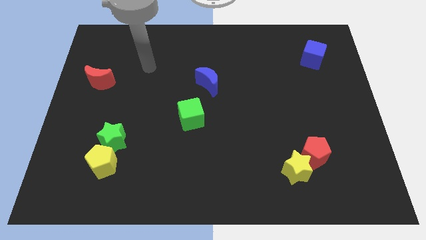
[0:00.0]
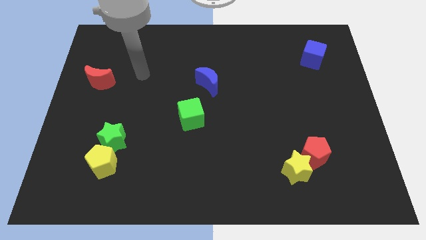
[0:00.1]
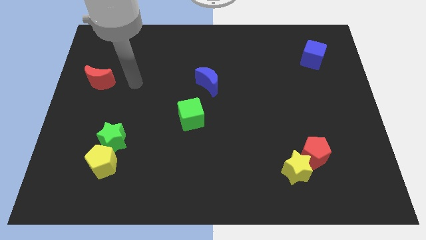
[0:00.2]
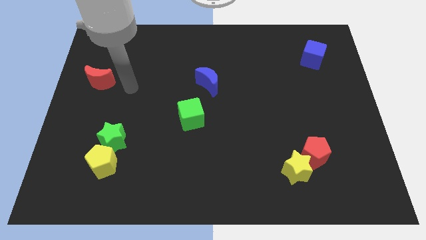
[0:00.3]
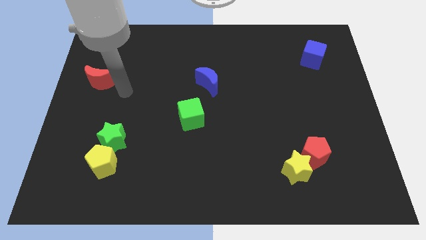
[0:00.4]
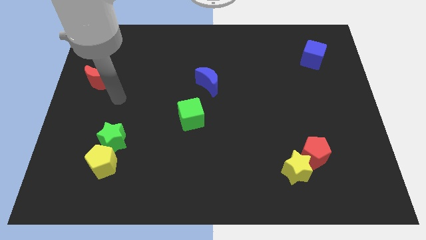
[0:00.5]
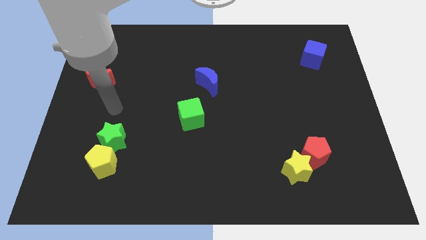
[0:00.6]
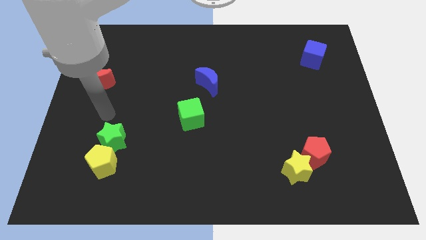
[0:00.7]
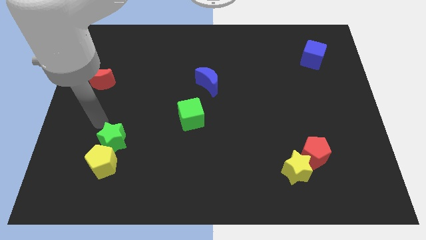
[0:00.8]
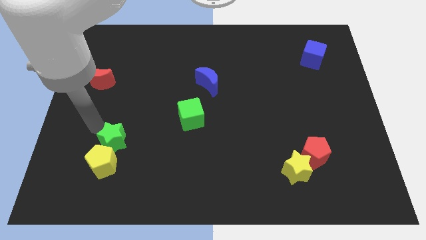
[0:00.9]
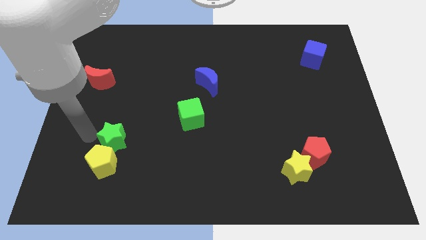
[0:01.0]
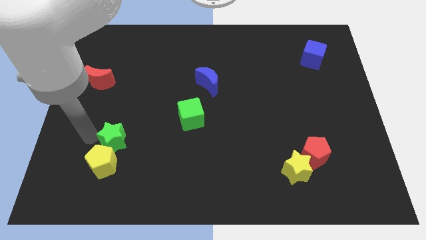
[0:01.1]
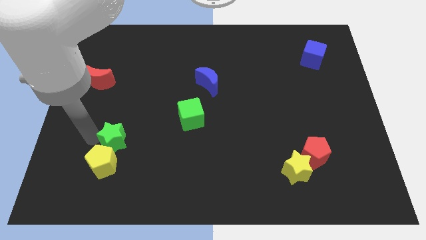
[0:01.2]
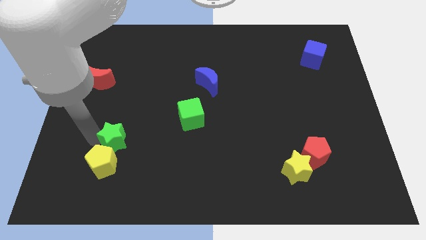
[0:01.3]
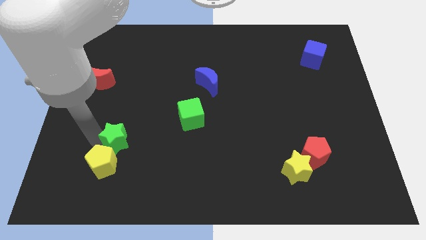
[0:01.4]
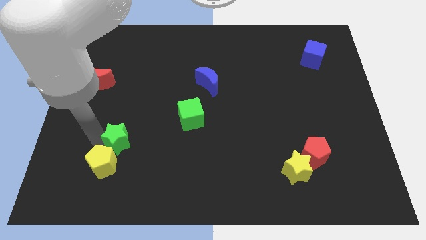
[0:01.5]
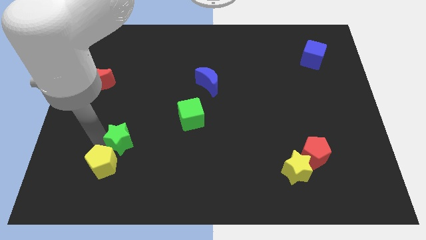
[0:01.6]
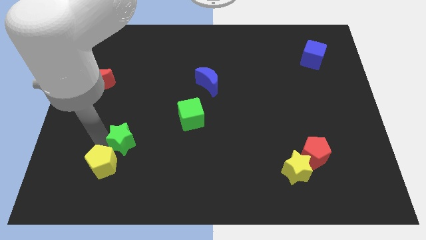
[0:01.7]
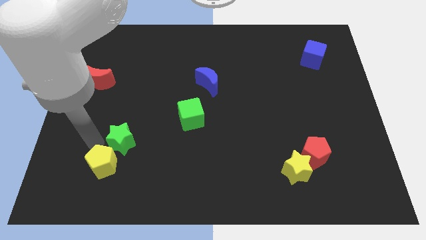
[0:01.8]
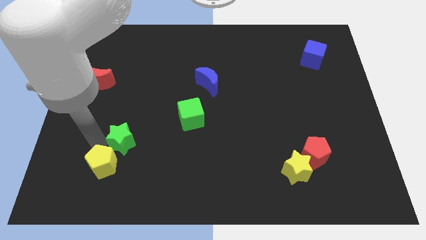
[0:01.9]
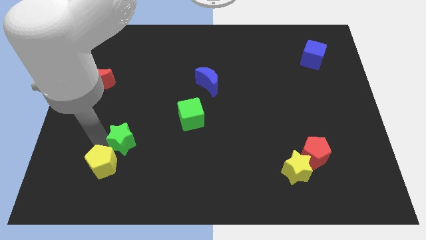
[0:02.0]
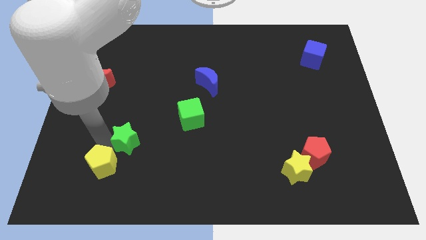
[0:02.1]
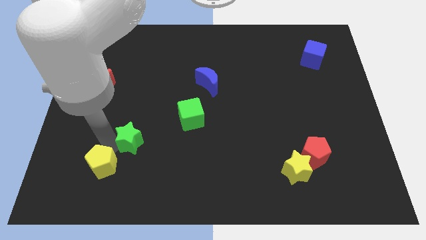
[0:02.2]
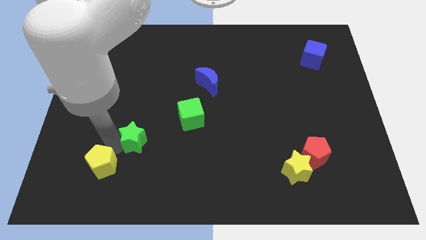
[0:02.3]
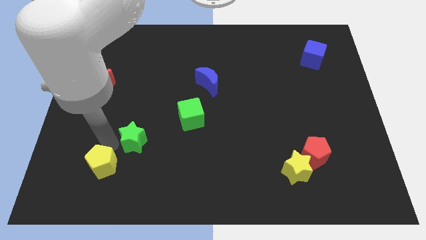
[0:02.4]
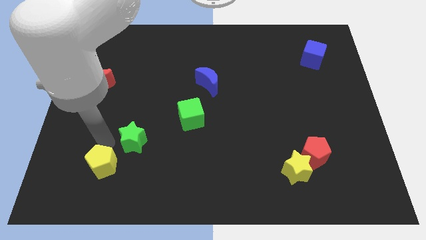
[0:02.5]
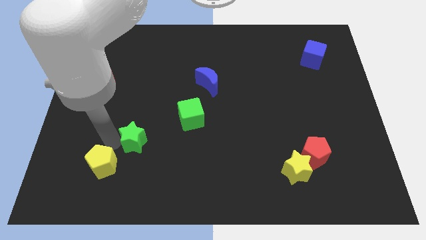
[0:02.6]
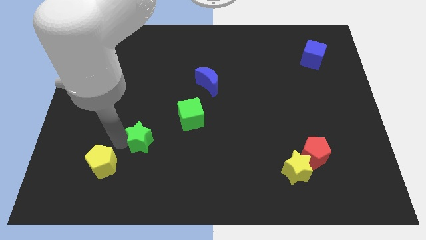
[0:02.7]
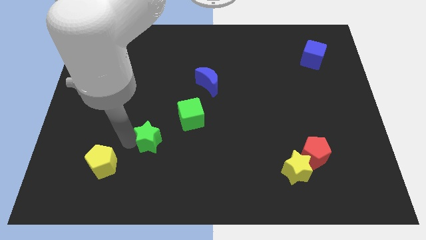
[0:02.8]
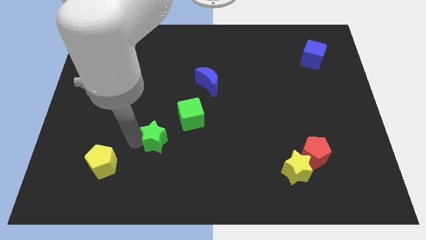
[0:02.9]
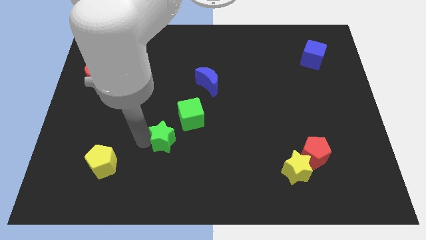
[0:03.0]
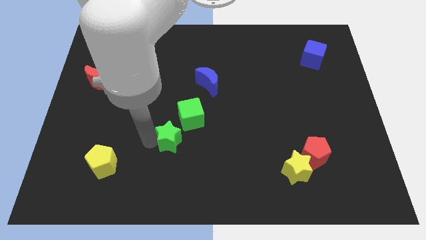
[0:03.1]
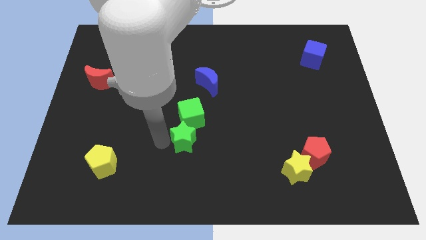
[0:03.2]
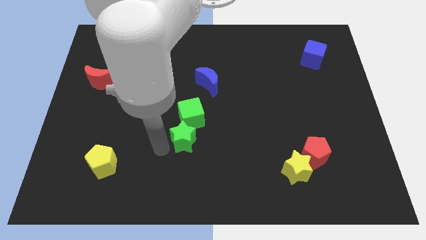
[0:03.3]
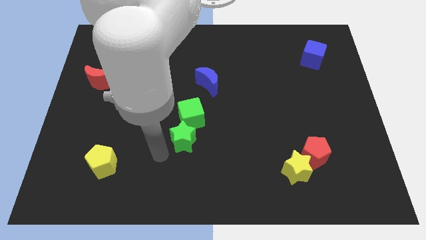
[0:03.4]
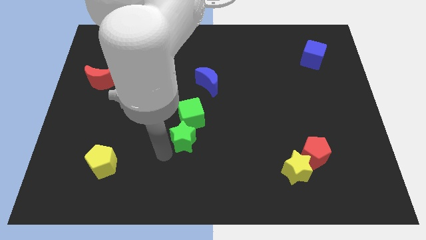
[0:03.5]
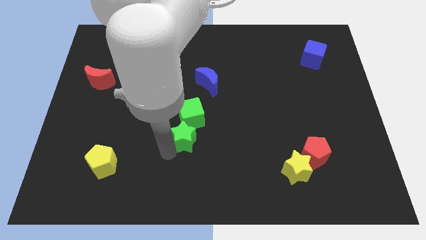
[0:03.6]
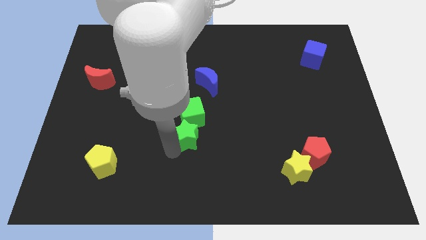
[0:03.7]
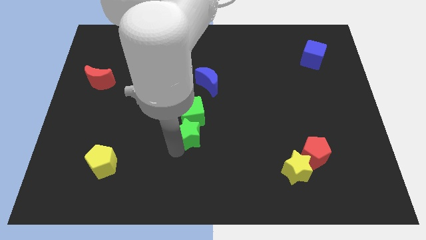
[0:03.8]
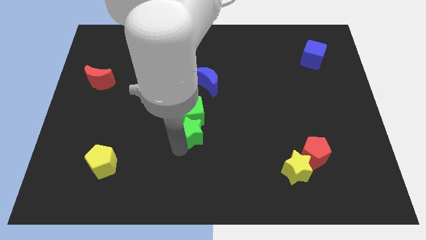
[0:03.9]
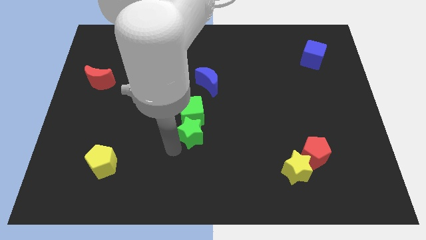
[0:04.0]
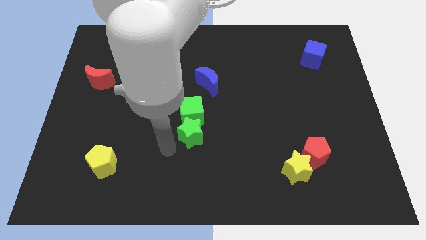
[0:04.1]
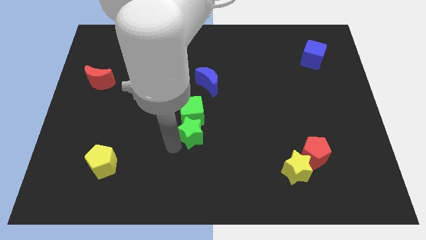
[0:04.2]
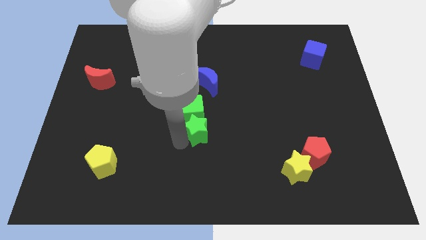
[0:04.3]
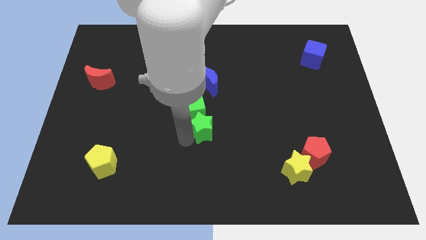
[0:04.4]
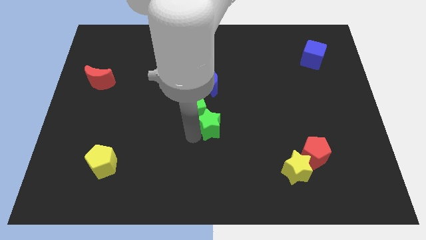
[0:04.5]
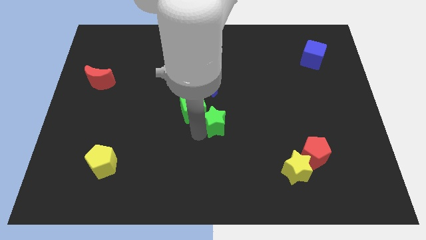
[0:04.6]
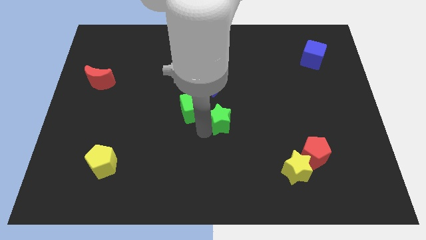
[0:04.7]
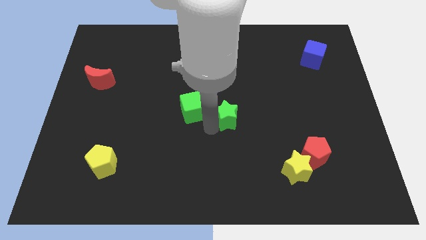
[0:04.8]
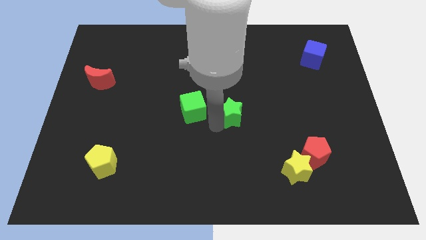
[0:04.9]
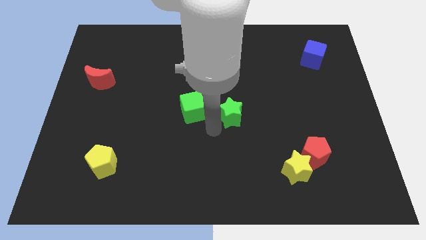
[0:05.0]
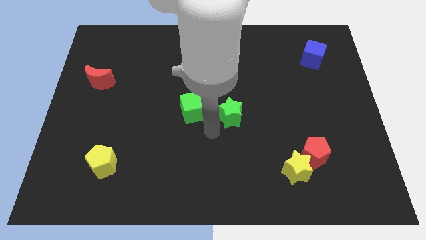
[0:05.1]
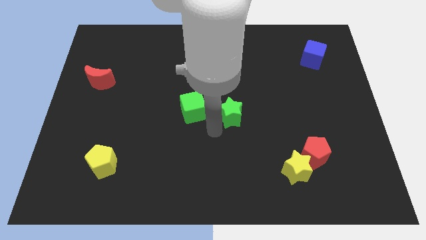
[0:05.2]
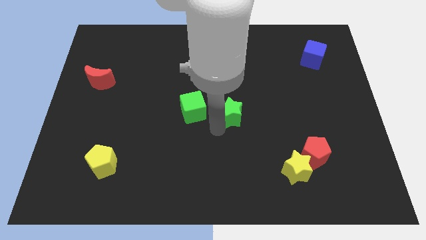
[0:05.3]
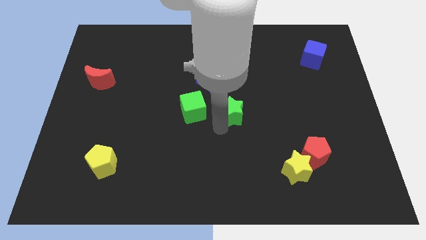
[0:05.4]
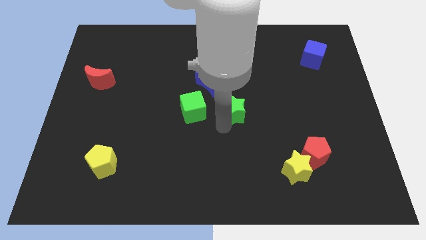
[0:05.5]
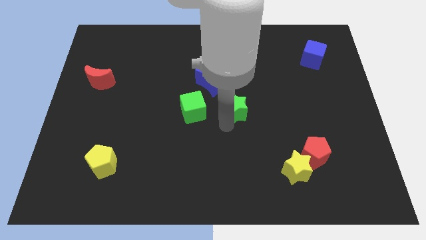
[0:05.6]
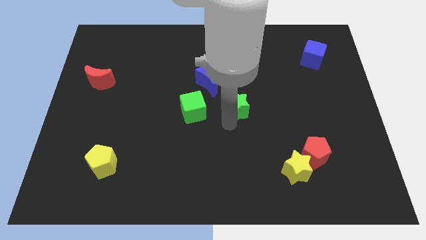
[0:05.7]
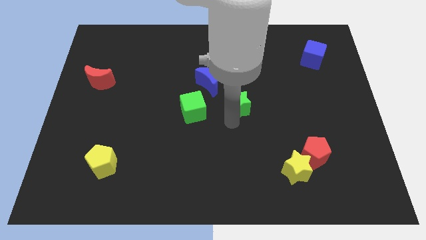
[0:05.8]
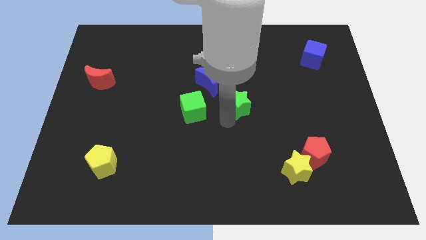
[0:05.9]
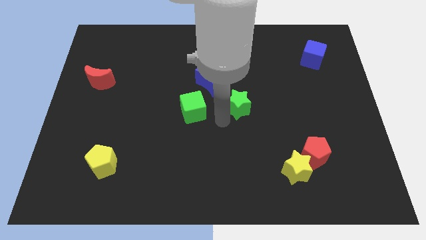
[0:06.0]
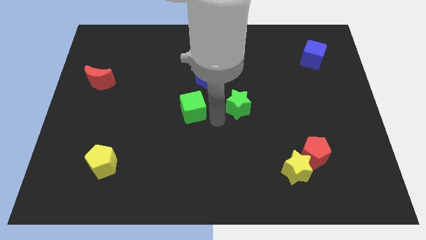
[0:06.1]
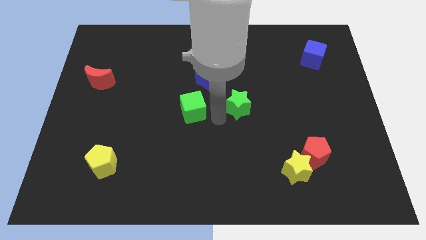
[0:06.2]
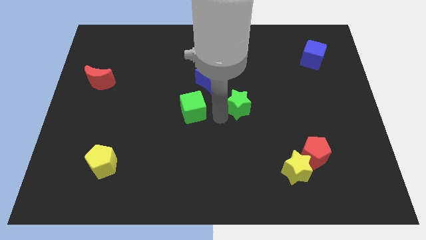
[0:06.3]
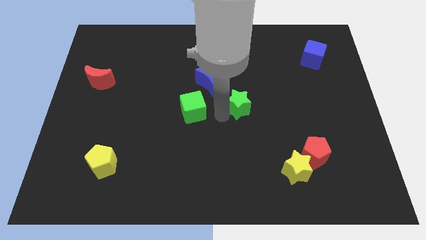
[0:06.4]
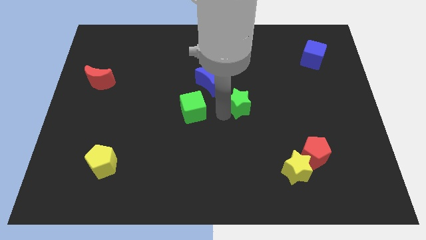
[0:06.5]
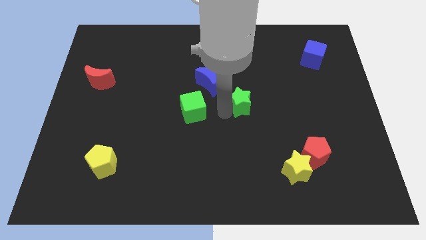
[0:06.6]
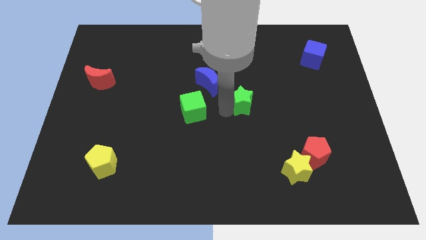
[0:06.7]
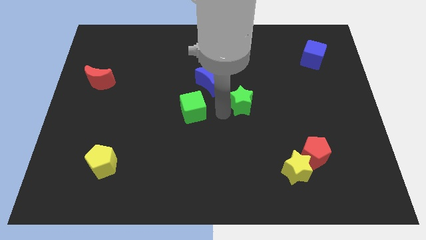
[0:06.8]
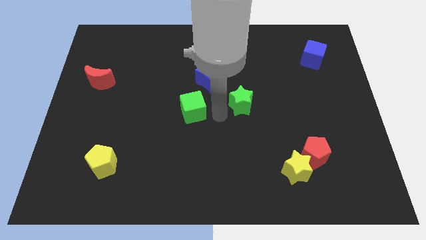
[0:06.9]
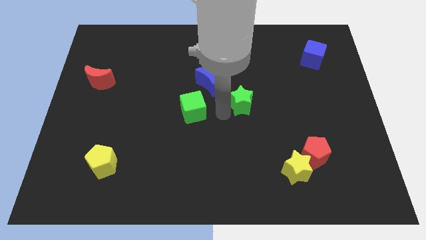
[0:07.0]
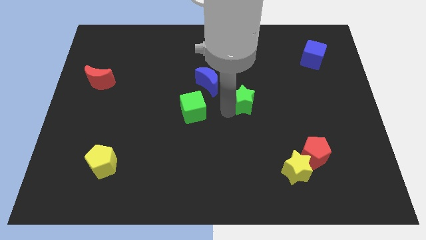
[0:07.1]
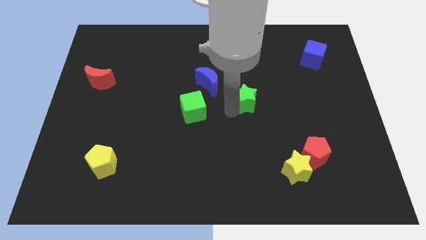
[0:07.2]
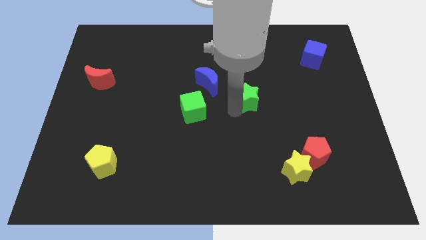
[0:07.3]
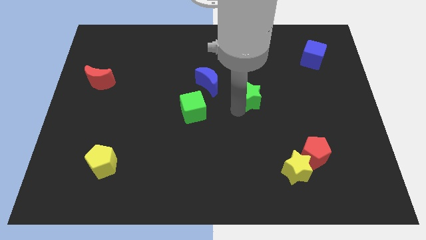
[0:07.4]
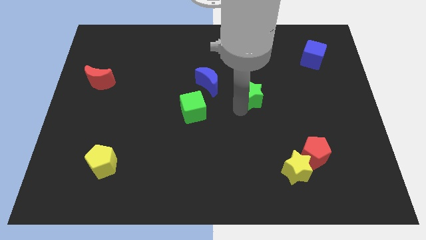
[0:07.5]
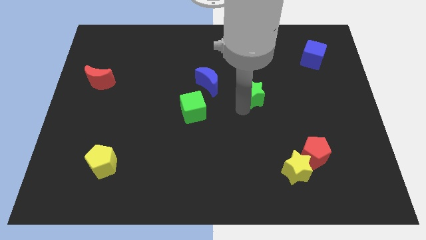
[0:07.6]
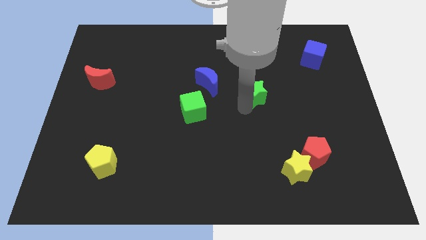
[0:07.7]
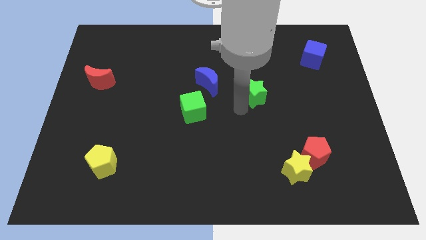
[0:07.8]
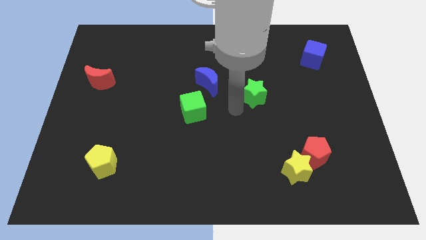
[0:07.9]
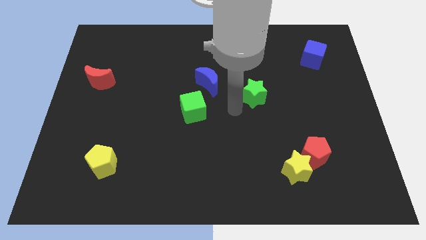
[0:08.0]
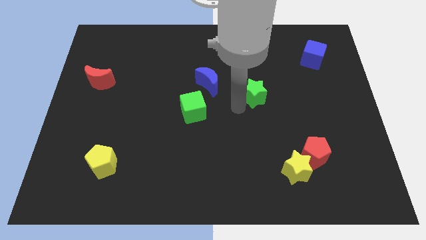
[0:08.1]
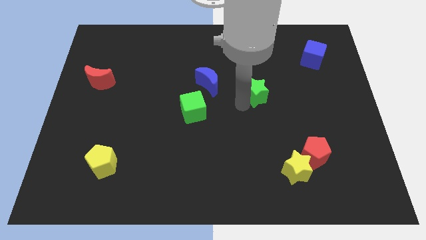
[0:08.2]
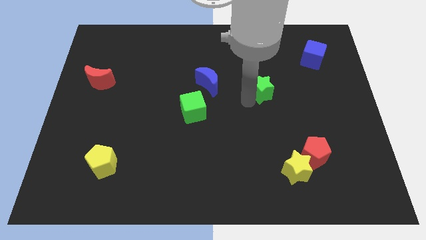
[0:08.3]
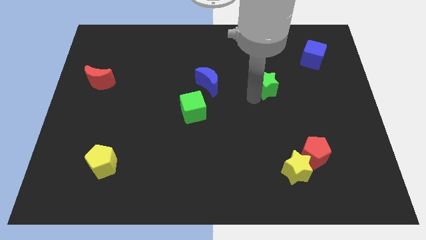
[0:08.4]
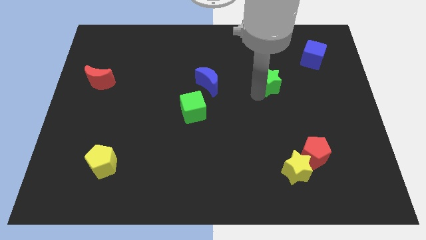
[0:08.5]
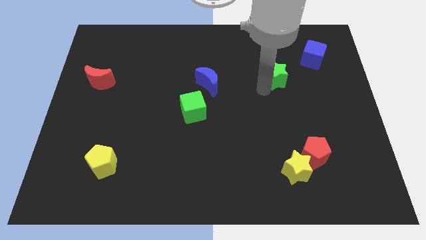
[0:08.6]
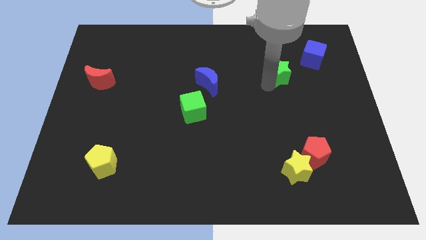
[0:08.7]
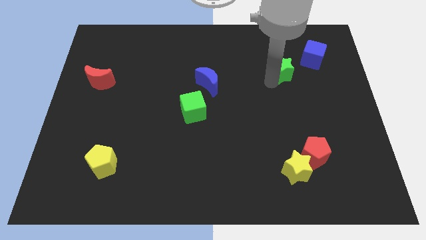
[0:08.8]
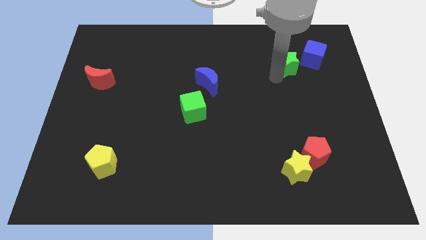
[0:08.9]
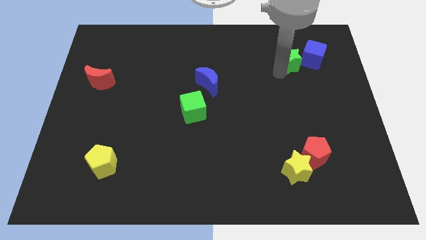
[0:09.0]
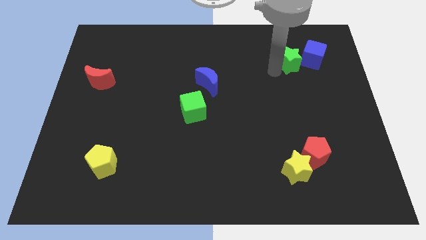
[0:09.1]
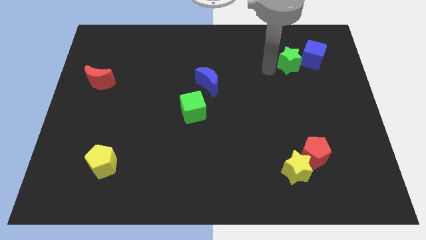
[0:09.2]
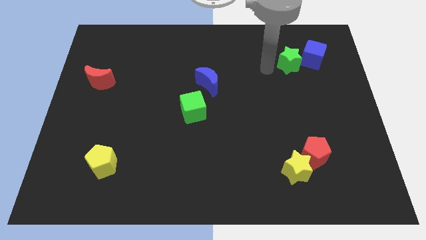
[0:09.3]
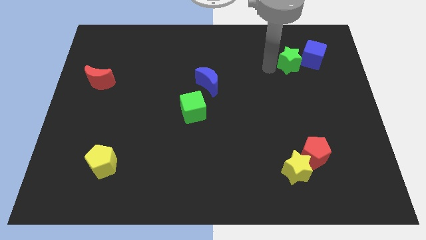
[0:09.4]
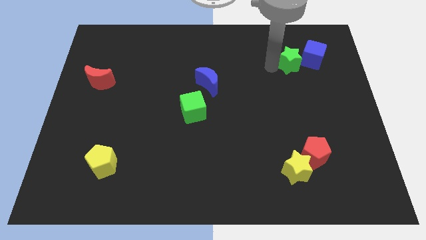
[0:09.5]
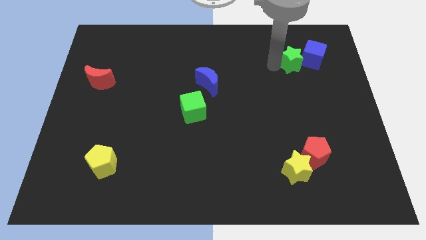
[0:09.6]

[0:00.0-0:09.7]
move the green star towards the blue cube
